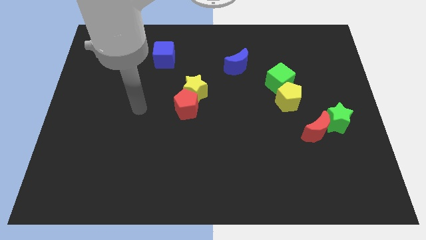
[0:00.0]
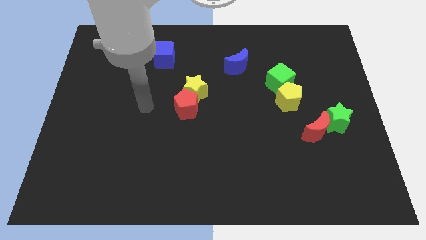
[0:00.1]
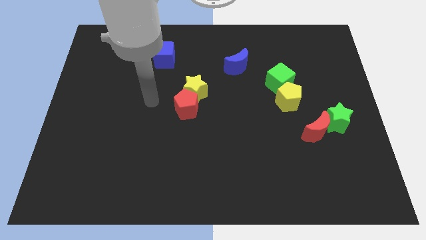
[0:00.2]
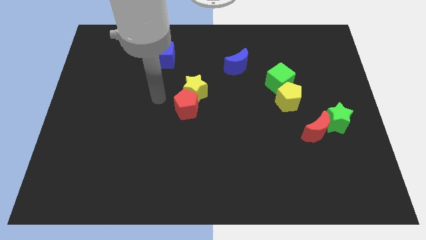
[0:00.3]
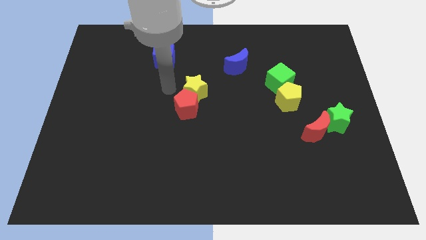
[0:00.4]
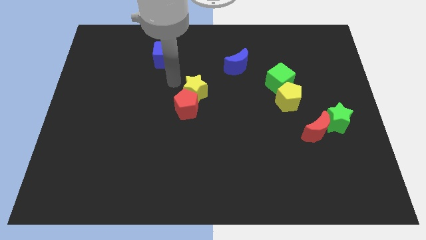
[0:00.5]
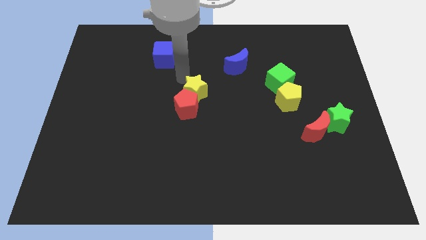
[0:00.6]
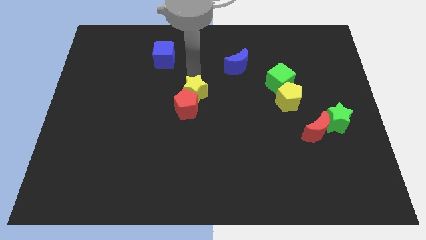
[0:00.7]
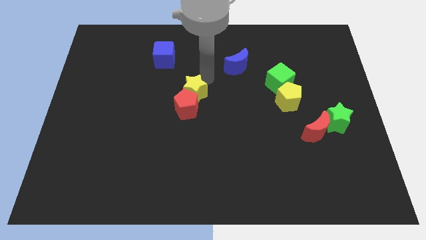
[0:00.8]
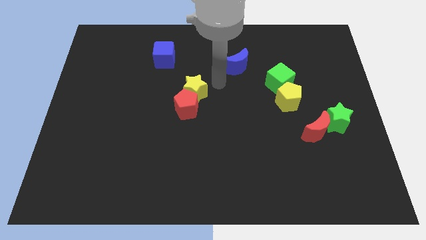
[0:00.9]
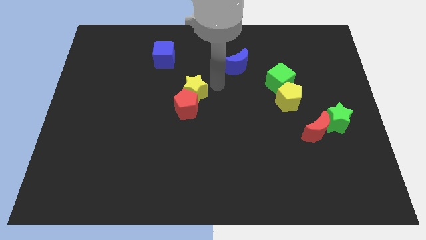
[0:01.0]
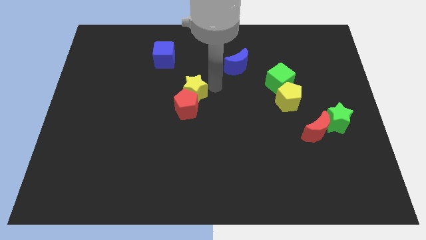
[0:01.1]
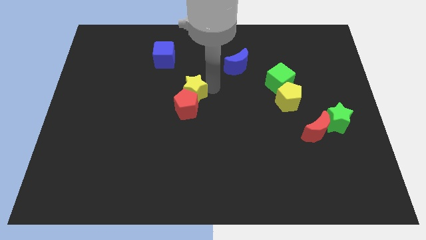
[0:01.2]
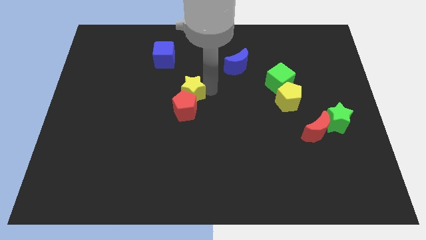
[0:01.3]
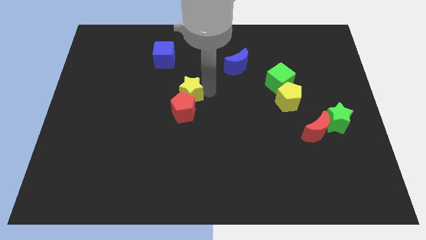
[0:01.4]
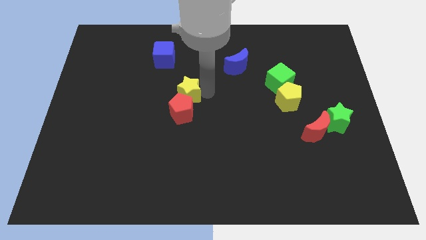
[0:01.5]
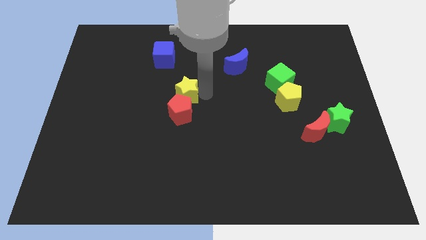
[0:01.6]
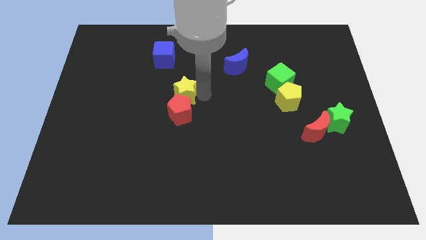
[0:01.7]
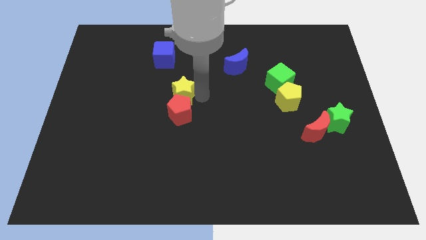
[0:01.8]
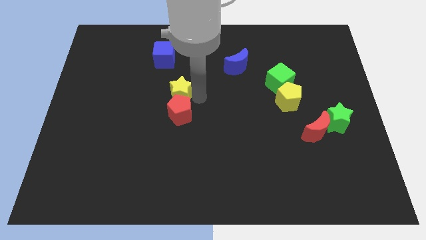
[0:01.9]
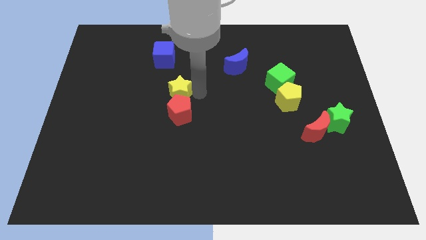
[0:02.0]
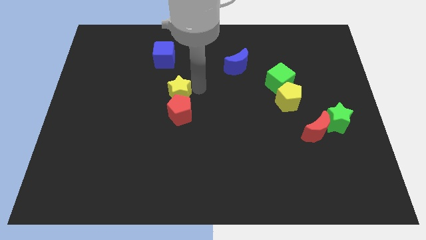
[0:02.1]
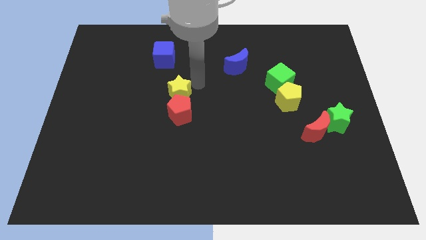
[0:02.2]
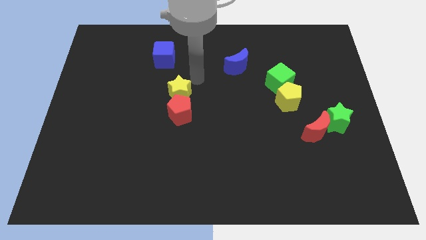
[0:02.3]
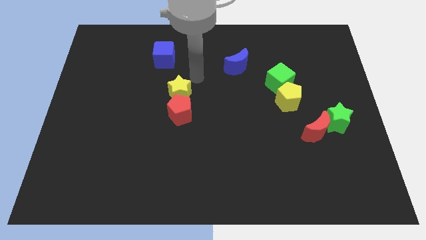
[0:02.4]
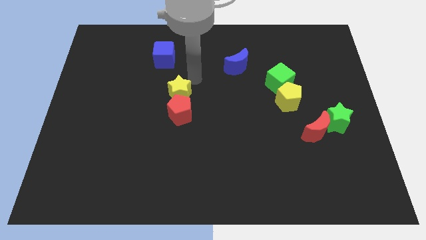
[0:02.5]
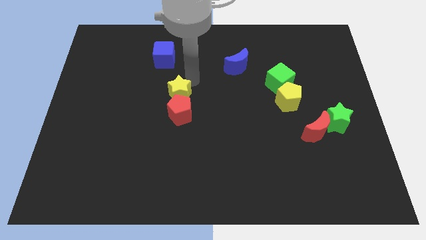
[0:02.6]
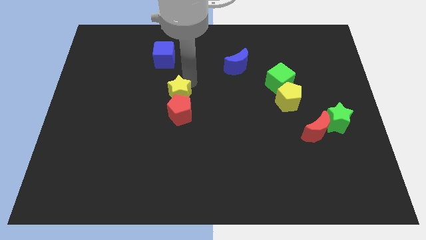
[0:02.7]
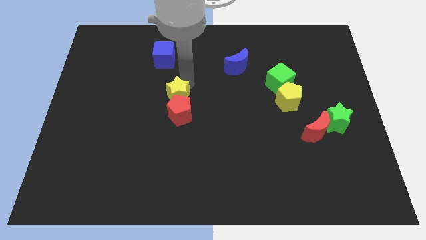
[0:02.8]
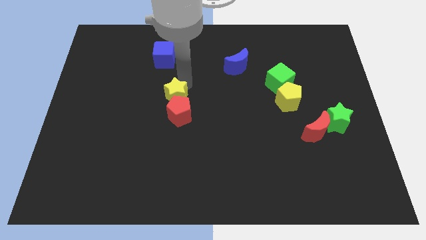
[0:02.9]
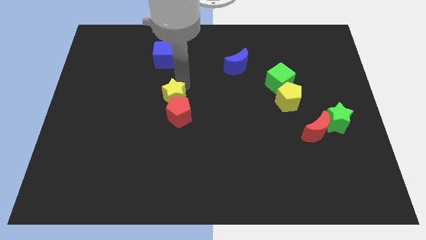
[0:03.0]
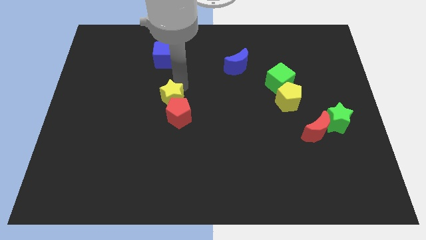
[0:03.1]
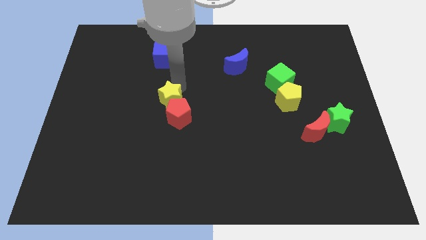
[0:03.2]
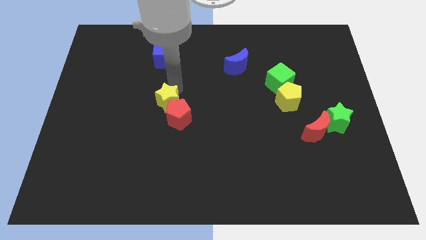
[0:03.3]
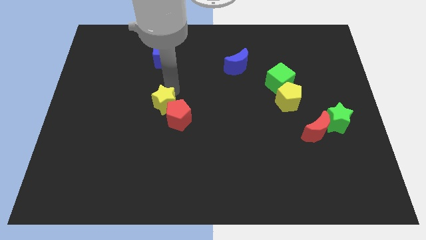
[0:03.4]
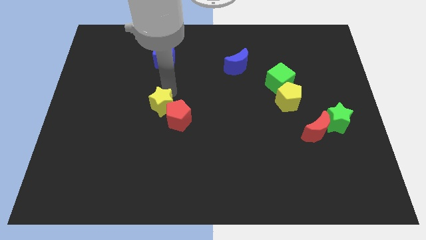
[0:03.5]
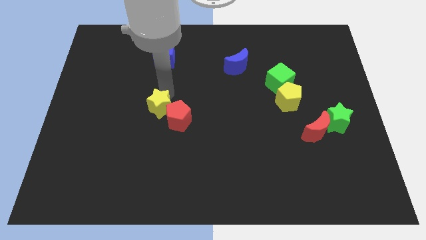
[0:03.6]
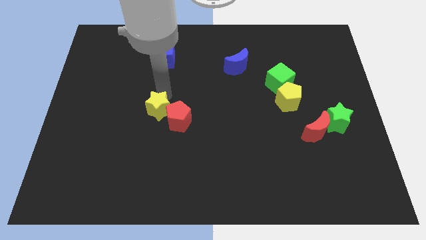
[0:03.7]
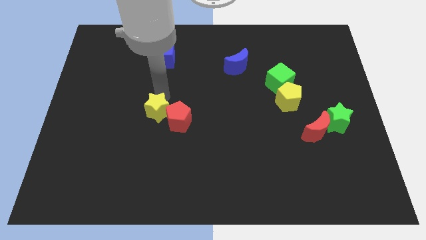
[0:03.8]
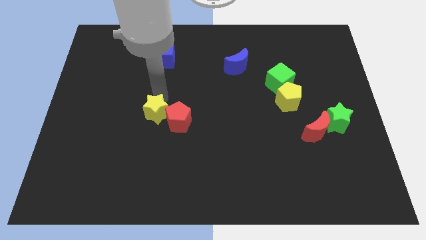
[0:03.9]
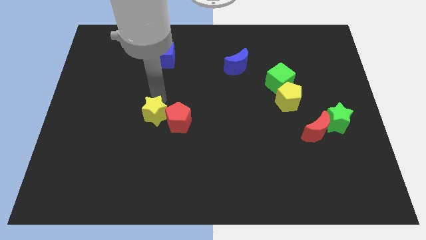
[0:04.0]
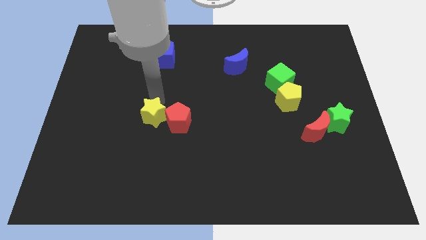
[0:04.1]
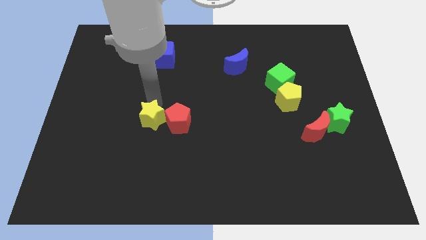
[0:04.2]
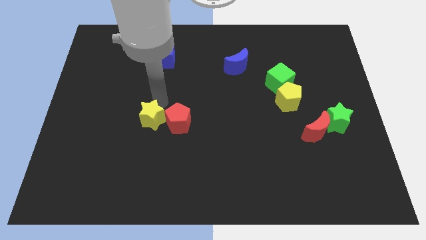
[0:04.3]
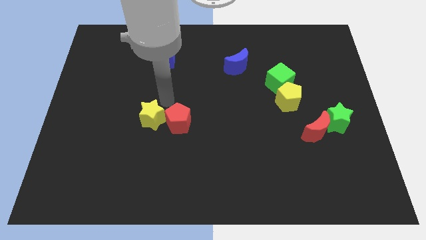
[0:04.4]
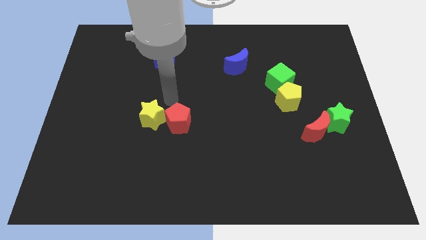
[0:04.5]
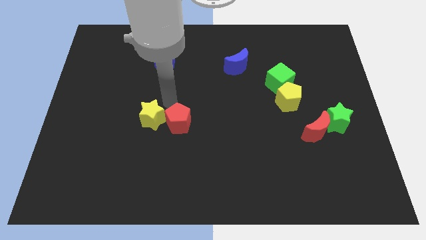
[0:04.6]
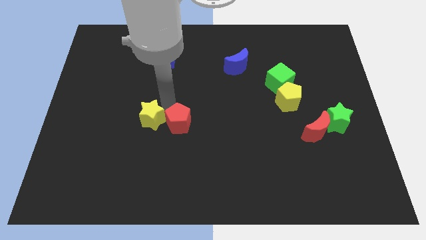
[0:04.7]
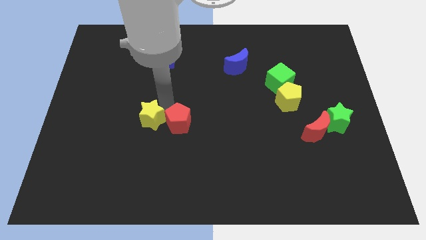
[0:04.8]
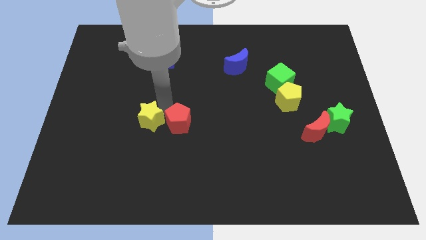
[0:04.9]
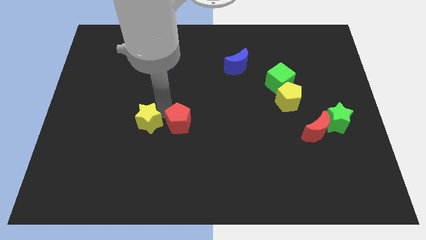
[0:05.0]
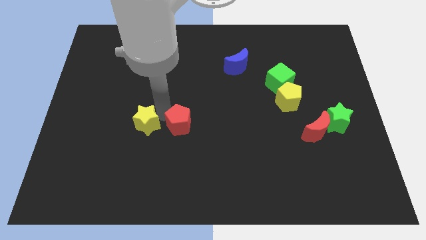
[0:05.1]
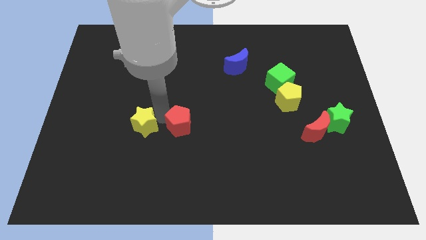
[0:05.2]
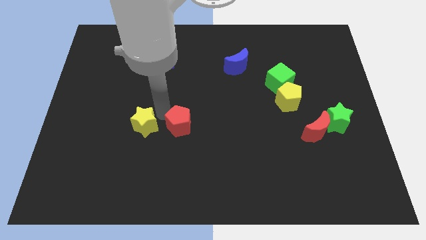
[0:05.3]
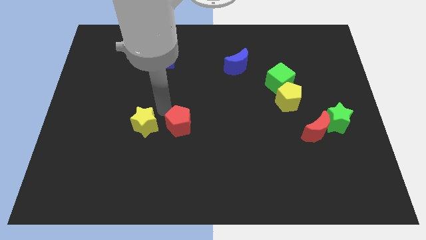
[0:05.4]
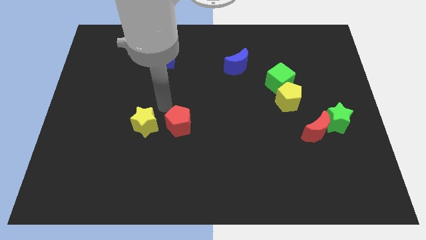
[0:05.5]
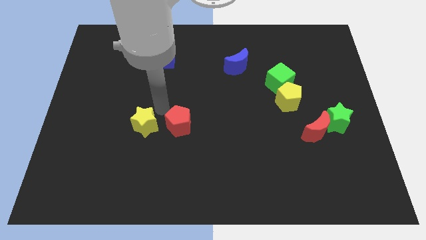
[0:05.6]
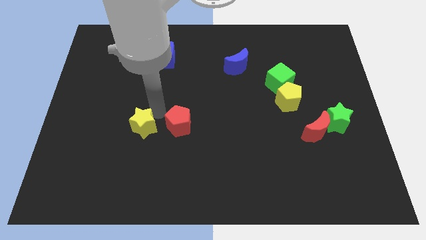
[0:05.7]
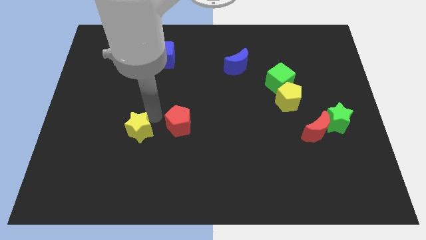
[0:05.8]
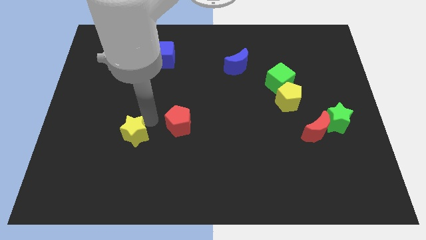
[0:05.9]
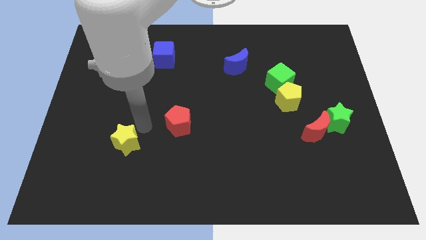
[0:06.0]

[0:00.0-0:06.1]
slide the yellow star downwards and left

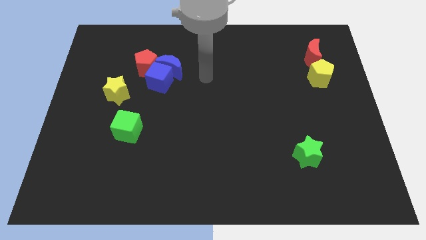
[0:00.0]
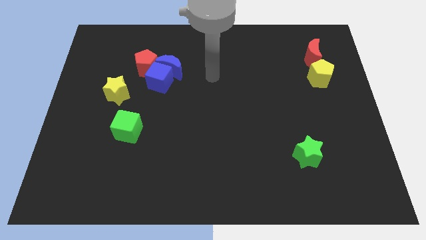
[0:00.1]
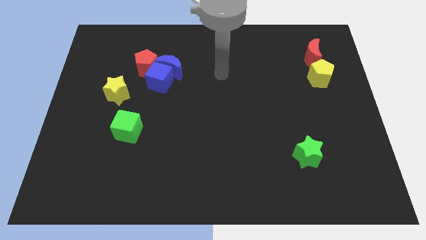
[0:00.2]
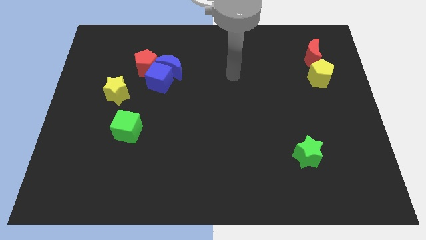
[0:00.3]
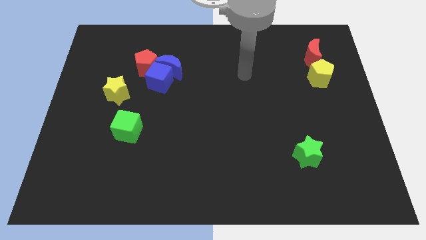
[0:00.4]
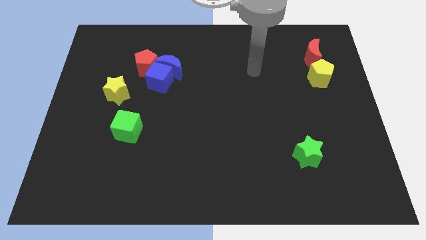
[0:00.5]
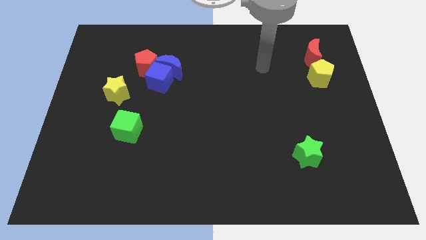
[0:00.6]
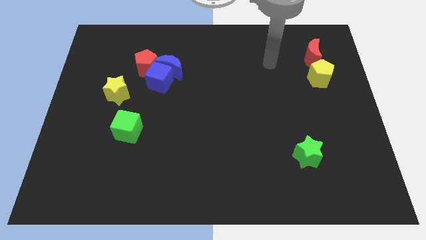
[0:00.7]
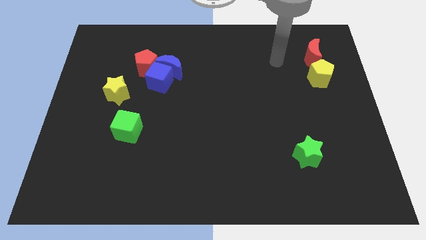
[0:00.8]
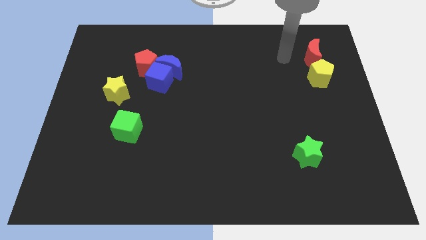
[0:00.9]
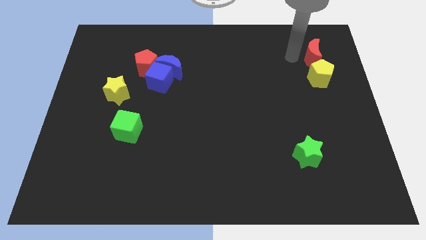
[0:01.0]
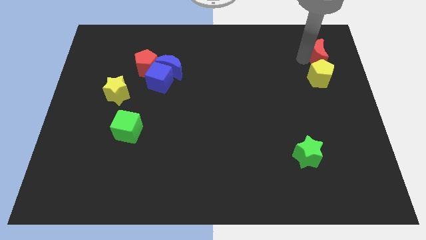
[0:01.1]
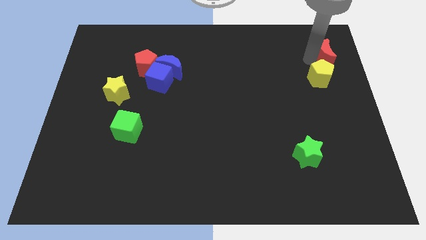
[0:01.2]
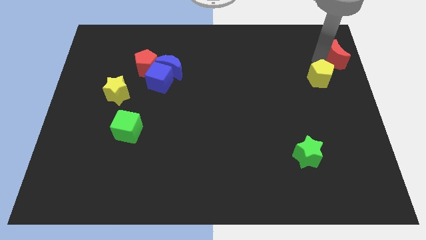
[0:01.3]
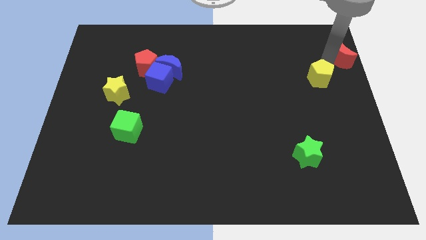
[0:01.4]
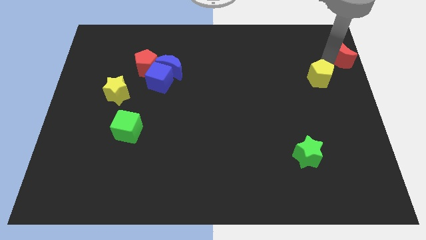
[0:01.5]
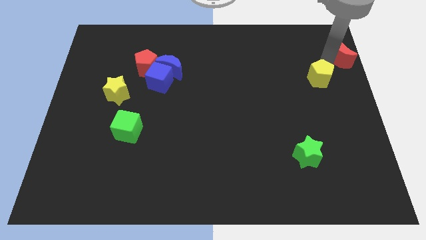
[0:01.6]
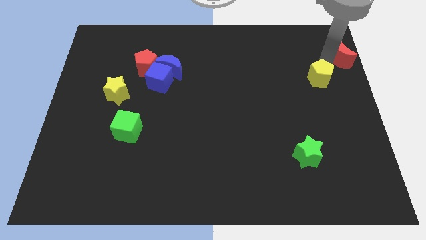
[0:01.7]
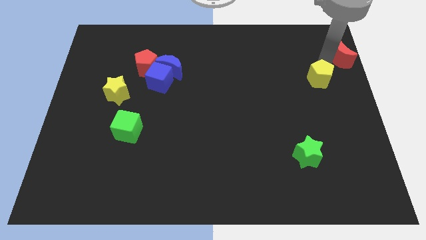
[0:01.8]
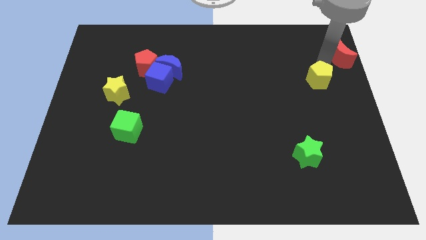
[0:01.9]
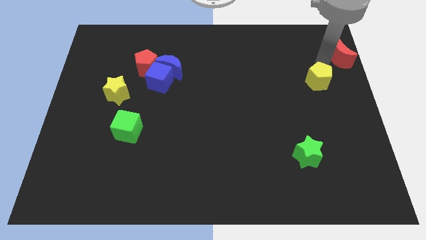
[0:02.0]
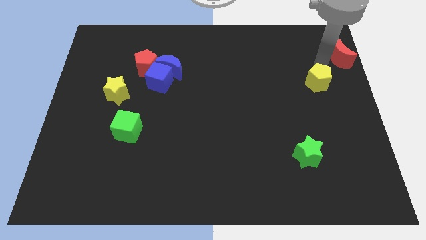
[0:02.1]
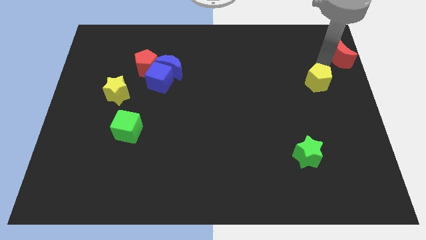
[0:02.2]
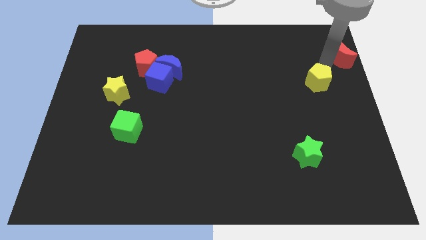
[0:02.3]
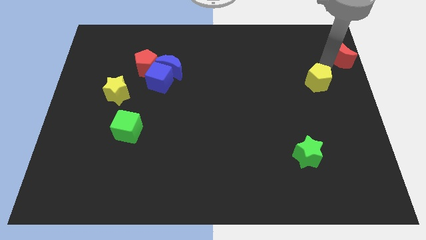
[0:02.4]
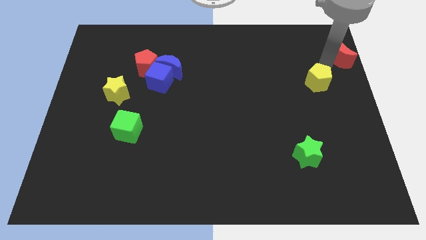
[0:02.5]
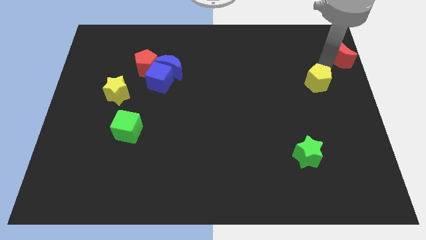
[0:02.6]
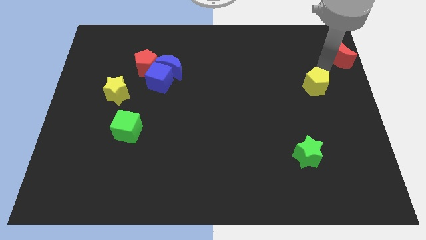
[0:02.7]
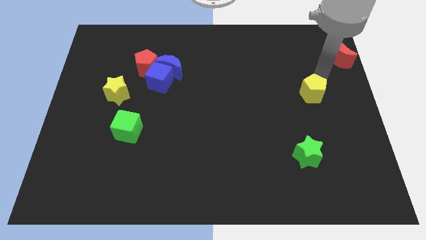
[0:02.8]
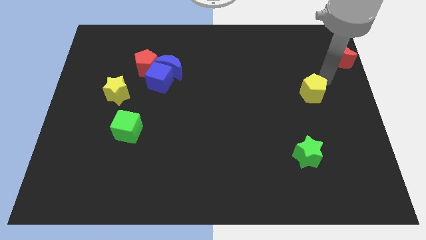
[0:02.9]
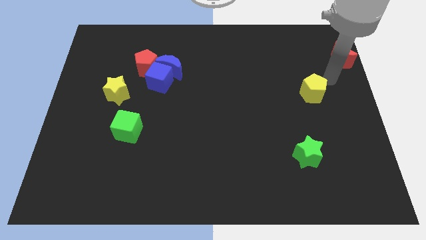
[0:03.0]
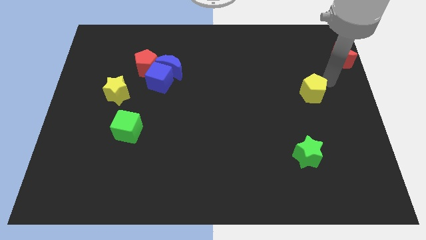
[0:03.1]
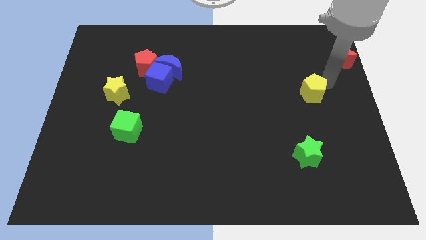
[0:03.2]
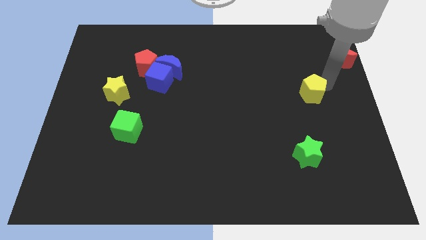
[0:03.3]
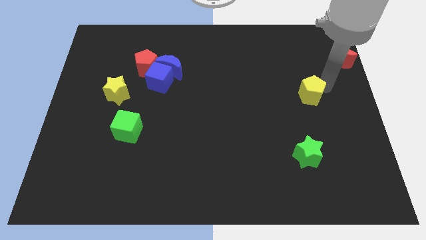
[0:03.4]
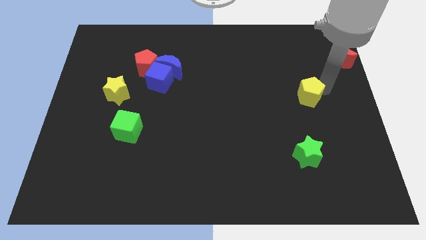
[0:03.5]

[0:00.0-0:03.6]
move the yellow pentagon a little bit downwards and left diagonally
